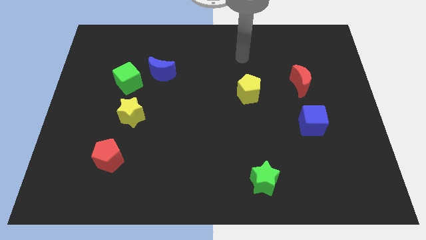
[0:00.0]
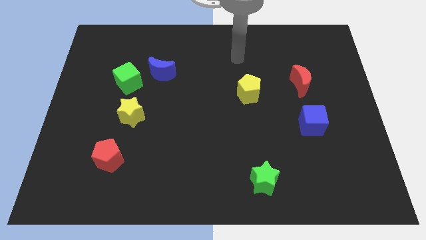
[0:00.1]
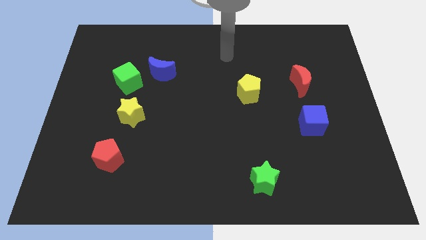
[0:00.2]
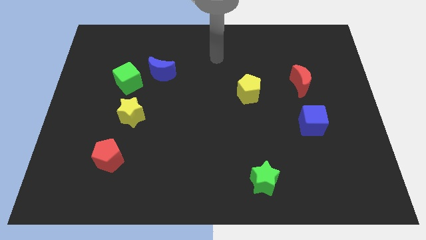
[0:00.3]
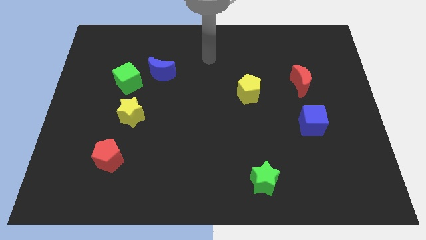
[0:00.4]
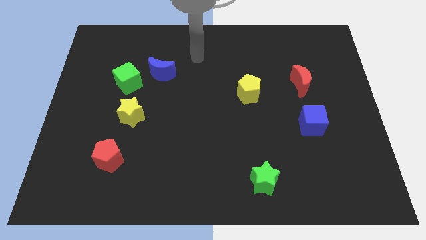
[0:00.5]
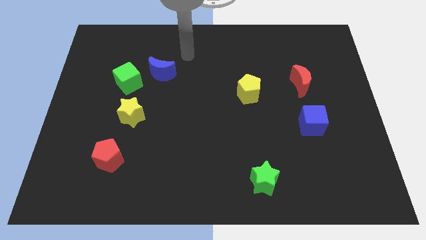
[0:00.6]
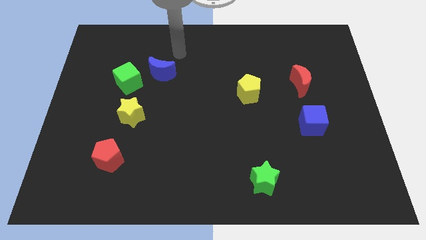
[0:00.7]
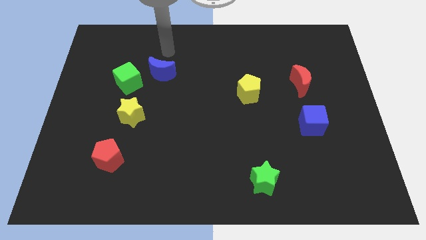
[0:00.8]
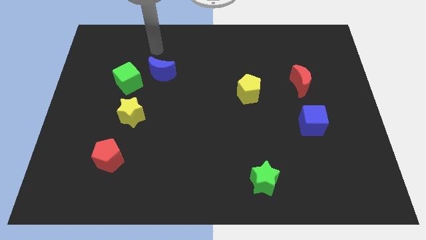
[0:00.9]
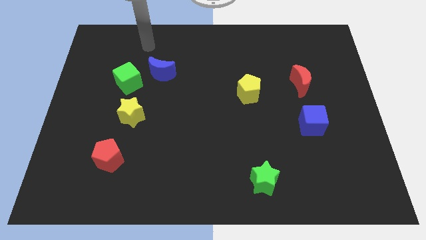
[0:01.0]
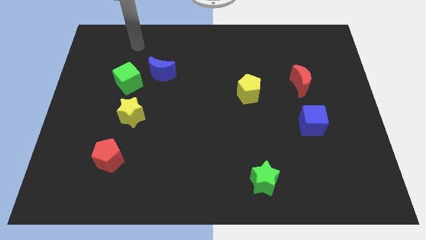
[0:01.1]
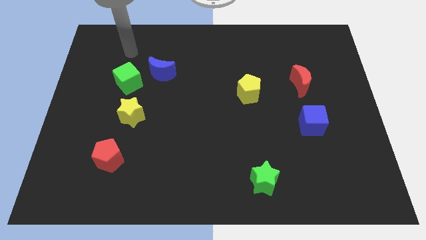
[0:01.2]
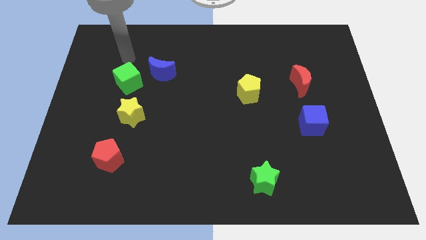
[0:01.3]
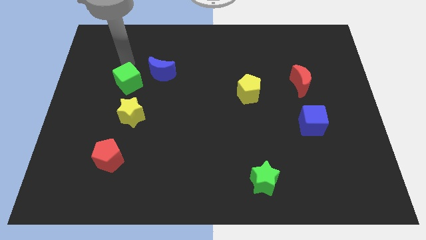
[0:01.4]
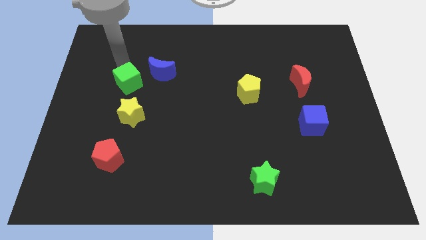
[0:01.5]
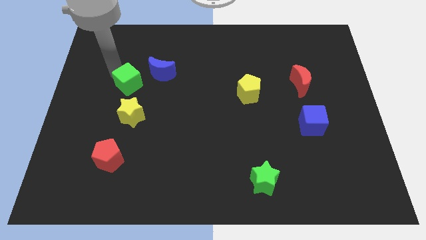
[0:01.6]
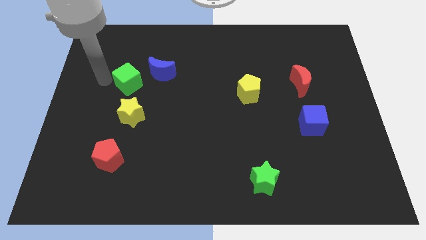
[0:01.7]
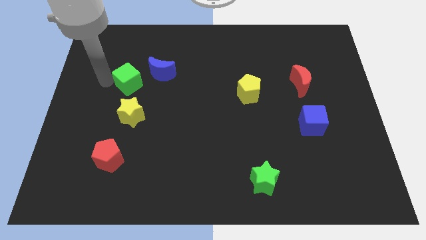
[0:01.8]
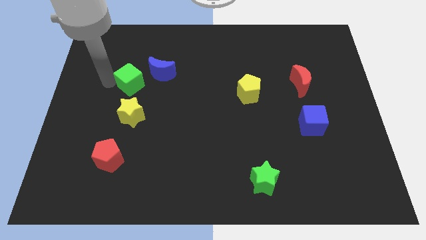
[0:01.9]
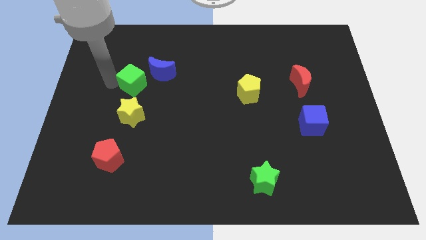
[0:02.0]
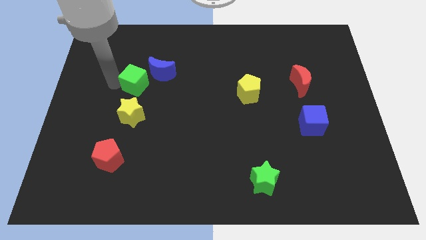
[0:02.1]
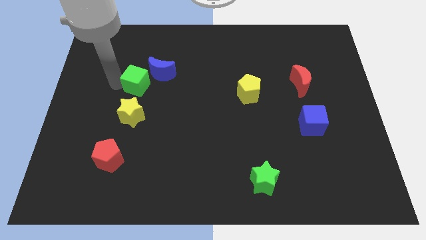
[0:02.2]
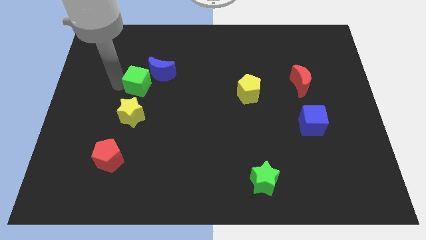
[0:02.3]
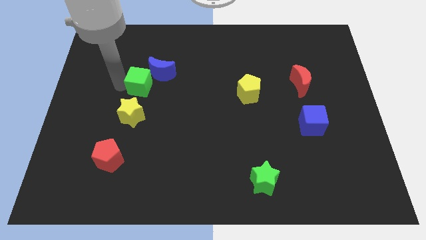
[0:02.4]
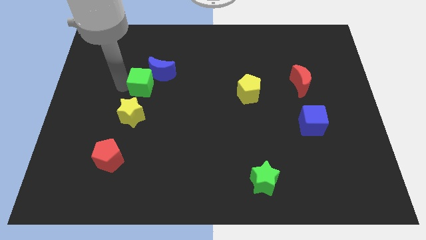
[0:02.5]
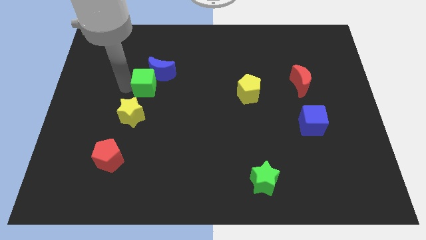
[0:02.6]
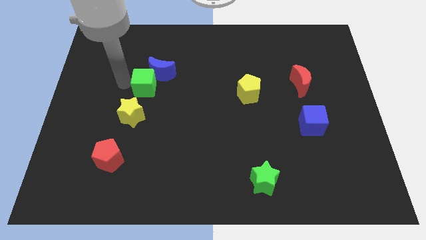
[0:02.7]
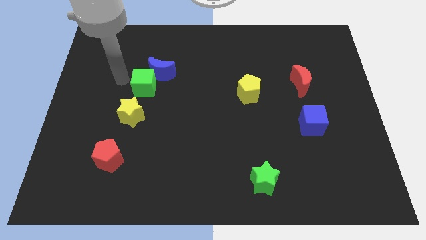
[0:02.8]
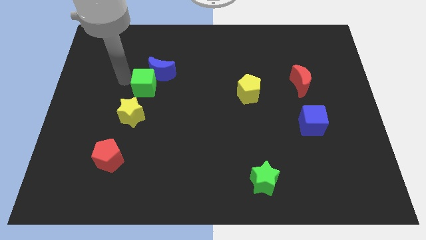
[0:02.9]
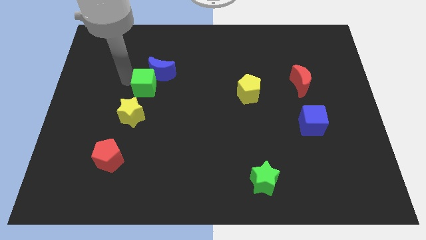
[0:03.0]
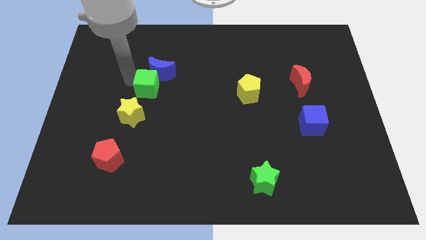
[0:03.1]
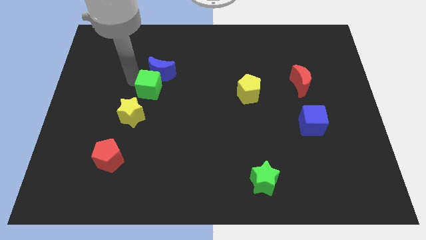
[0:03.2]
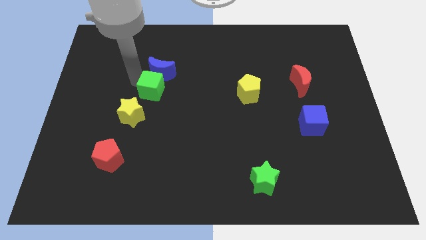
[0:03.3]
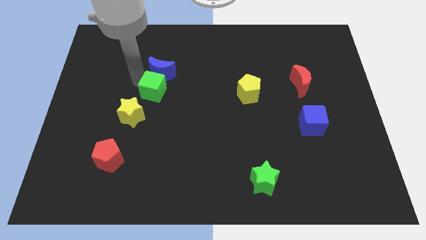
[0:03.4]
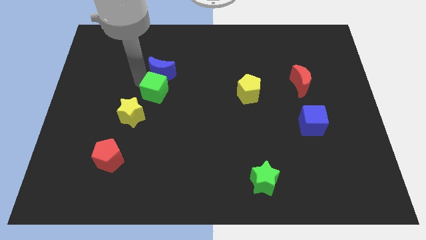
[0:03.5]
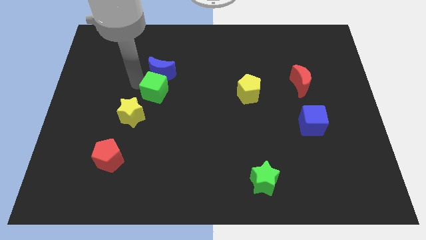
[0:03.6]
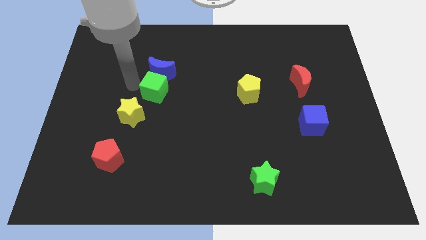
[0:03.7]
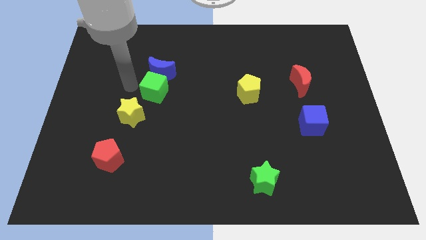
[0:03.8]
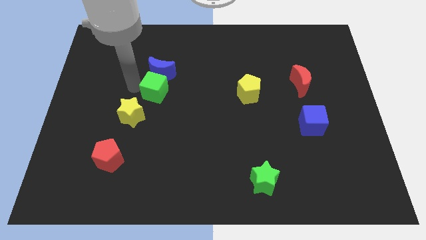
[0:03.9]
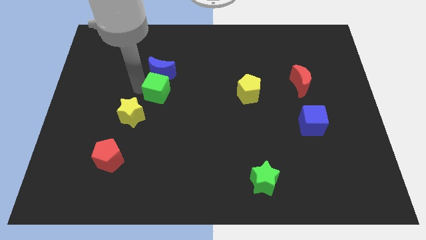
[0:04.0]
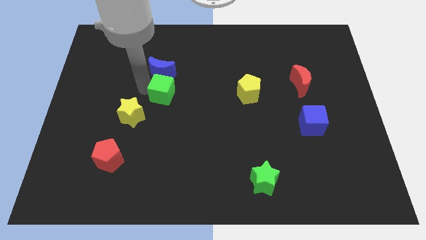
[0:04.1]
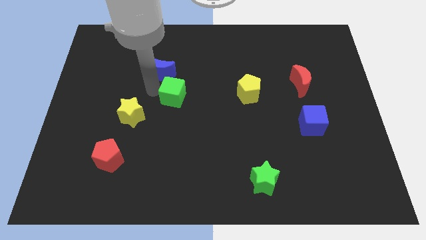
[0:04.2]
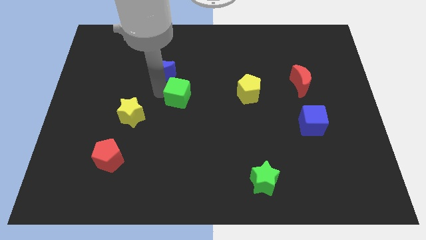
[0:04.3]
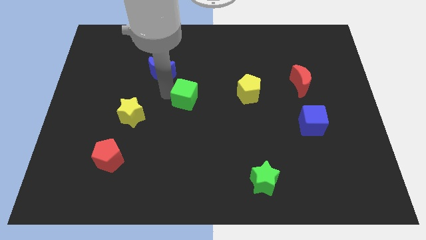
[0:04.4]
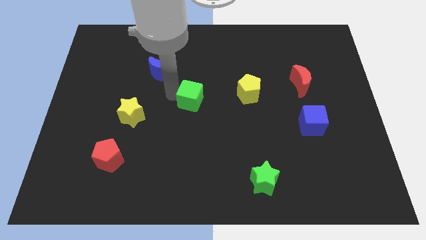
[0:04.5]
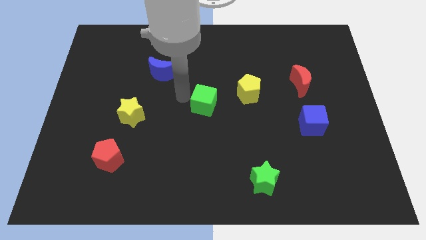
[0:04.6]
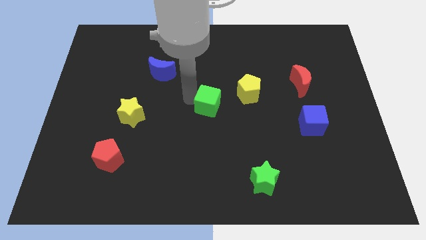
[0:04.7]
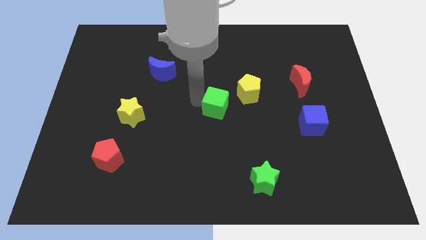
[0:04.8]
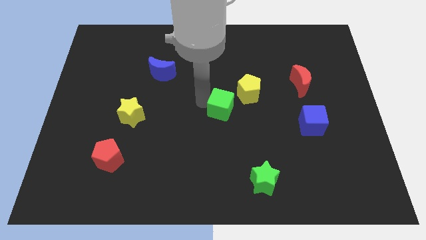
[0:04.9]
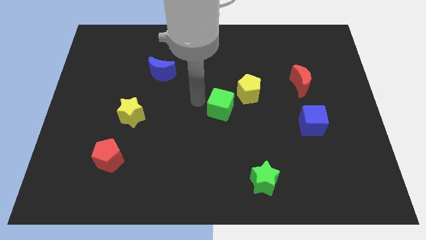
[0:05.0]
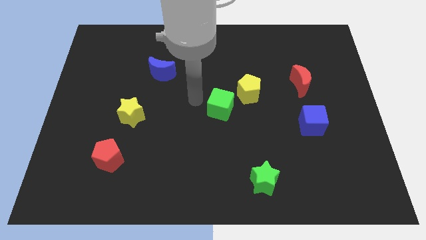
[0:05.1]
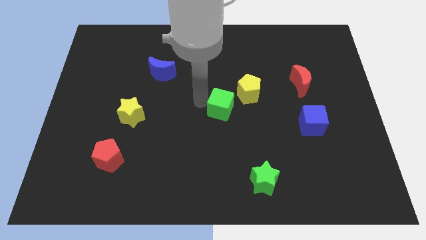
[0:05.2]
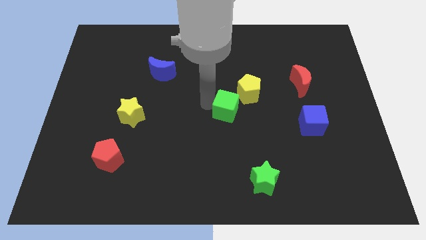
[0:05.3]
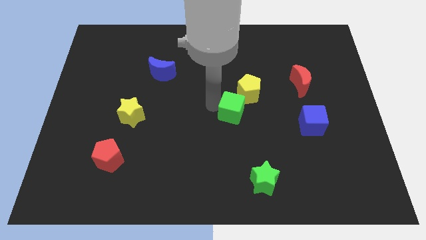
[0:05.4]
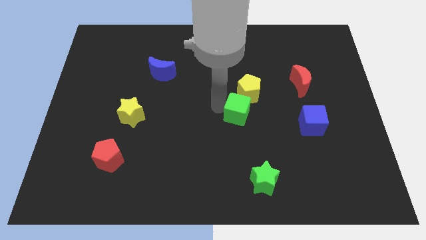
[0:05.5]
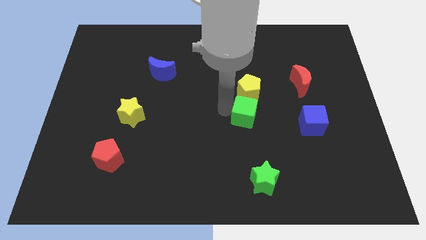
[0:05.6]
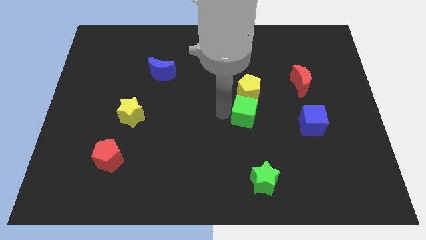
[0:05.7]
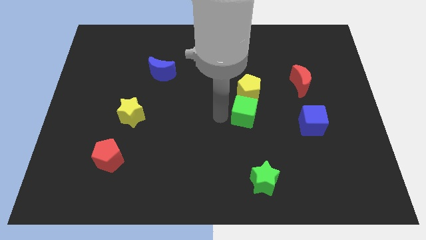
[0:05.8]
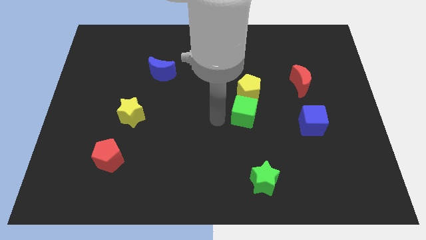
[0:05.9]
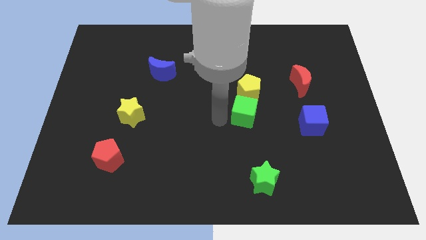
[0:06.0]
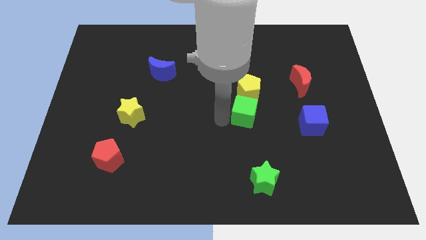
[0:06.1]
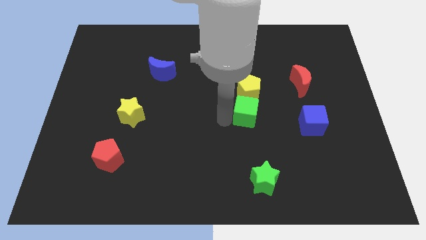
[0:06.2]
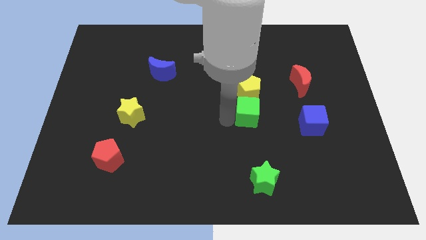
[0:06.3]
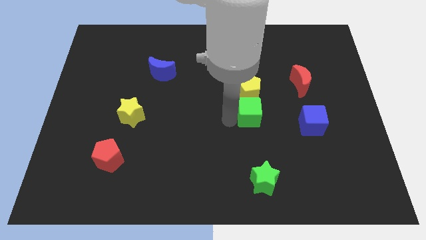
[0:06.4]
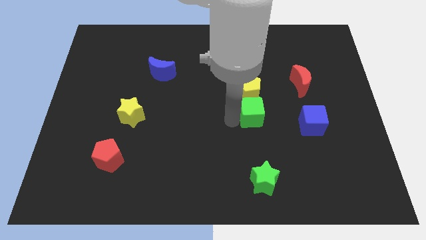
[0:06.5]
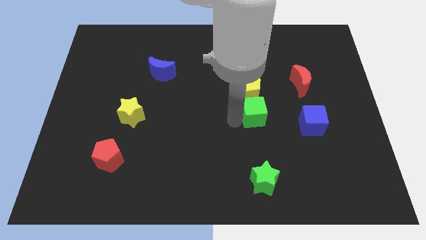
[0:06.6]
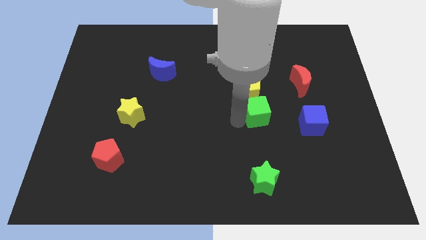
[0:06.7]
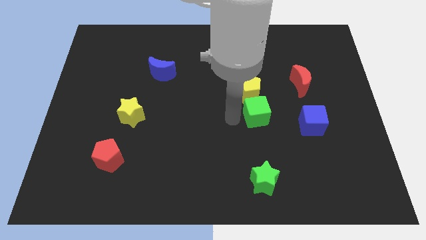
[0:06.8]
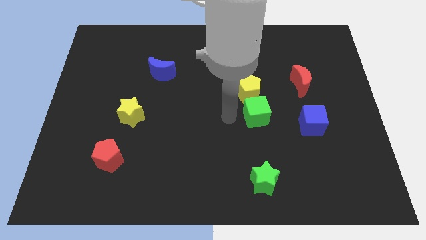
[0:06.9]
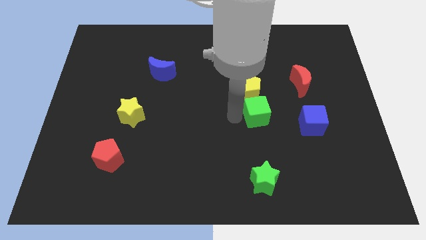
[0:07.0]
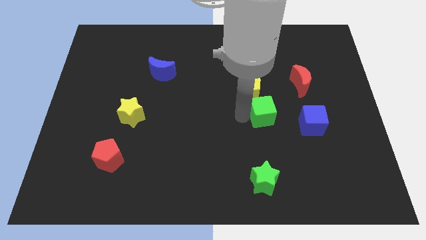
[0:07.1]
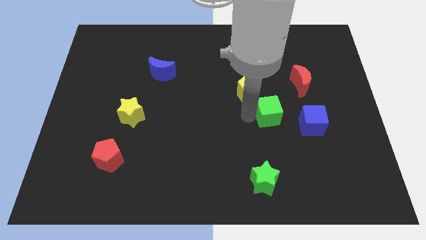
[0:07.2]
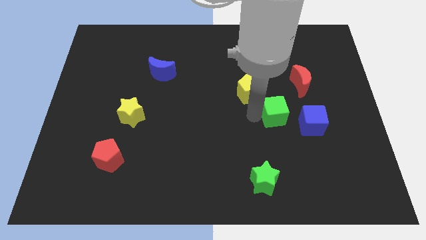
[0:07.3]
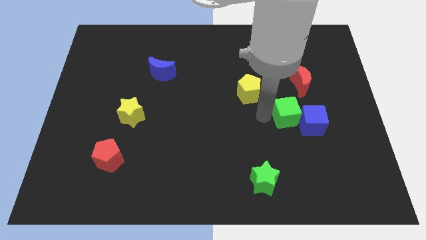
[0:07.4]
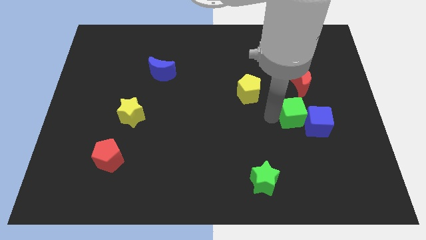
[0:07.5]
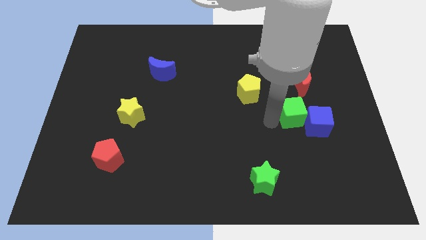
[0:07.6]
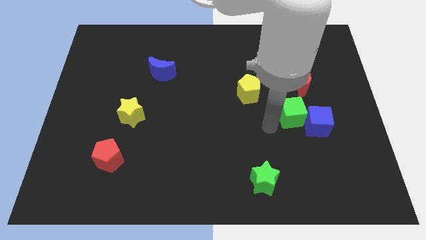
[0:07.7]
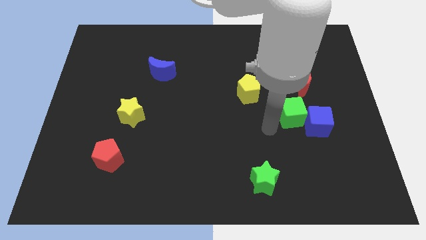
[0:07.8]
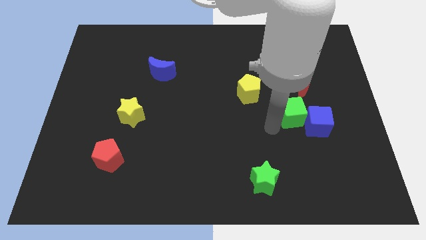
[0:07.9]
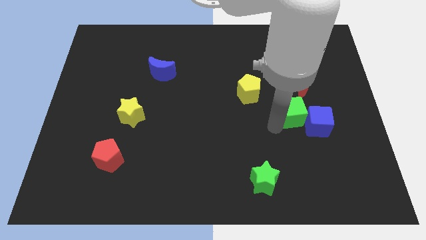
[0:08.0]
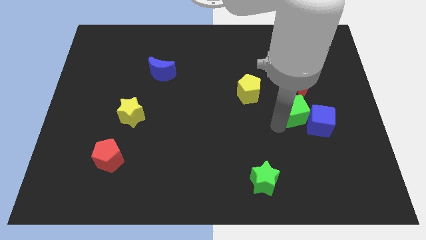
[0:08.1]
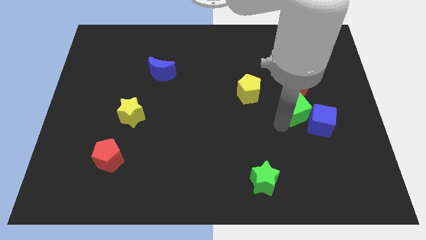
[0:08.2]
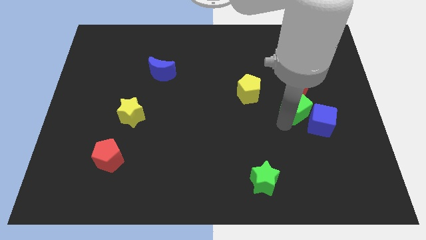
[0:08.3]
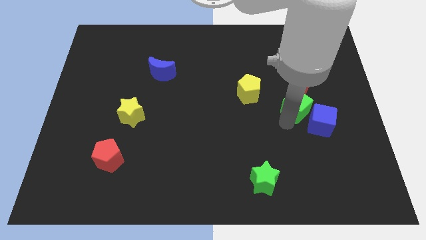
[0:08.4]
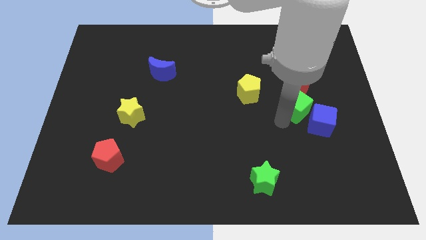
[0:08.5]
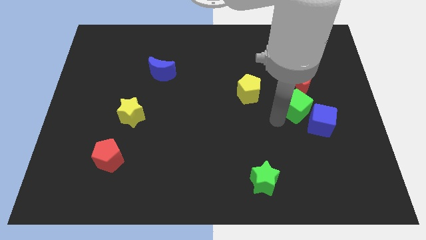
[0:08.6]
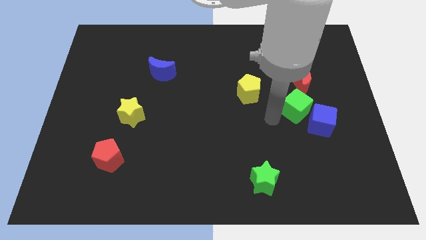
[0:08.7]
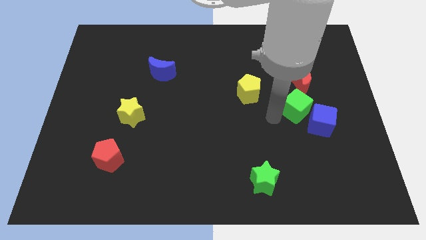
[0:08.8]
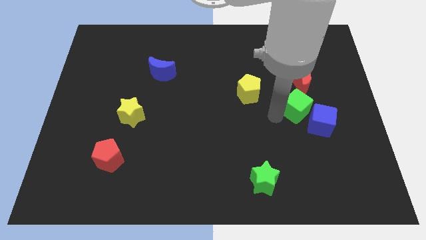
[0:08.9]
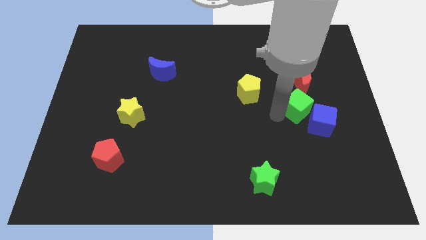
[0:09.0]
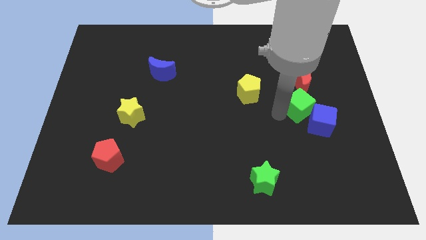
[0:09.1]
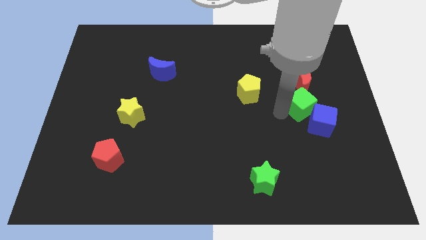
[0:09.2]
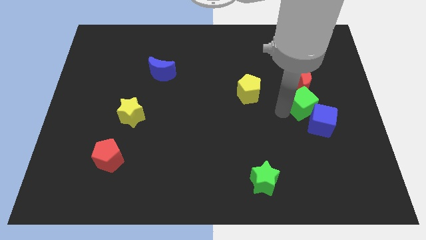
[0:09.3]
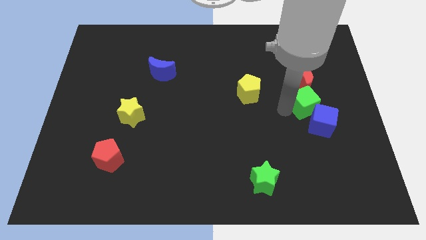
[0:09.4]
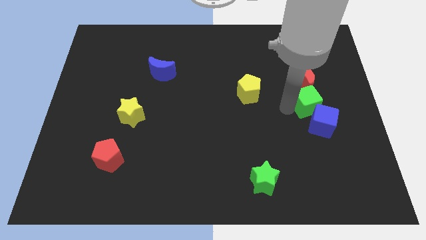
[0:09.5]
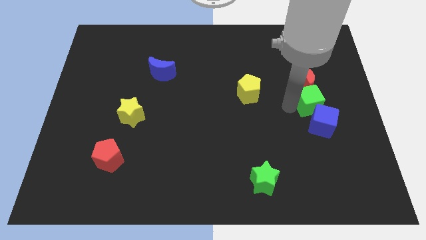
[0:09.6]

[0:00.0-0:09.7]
put the green cube to the bottom right of the red moon
